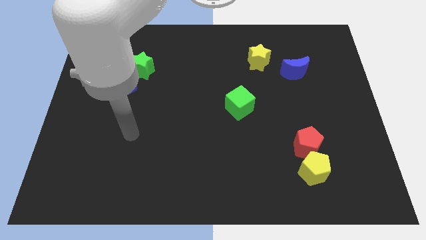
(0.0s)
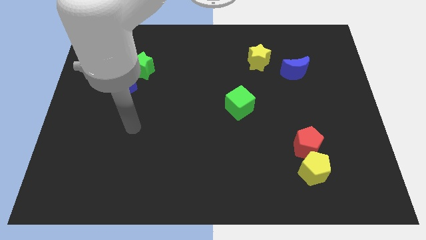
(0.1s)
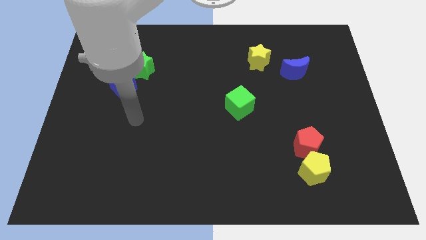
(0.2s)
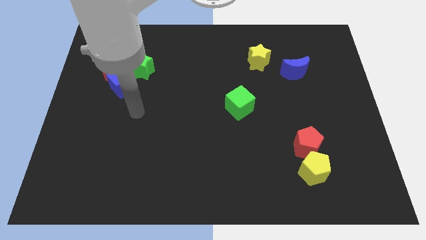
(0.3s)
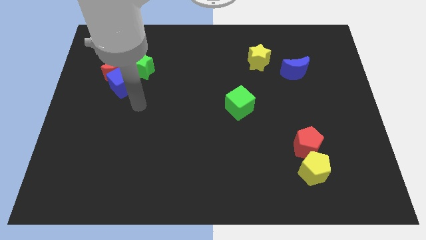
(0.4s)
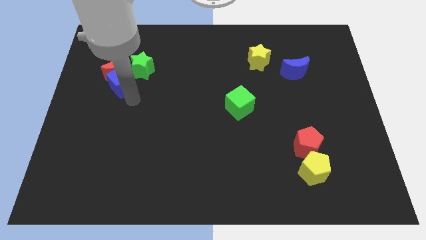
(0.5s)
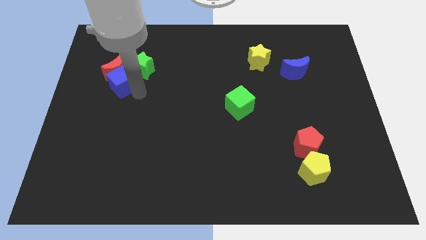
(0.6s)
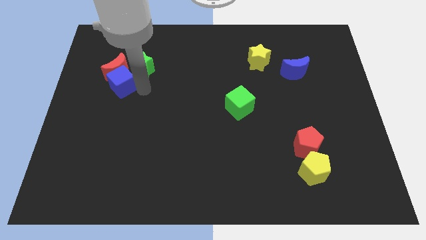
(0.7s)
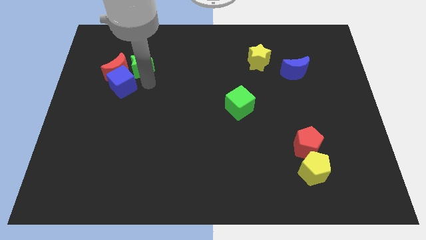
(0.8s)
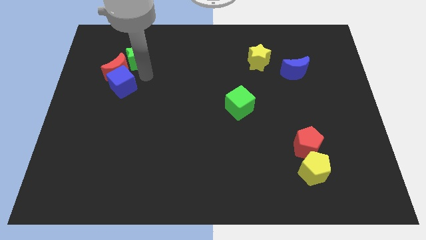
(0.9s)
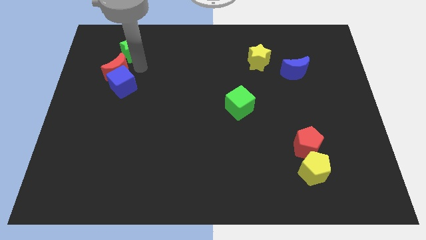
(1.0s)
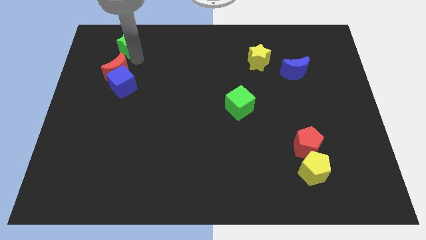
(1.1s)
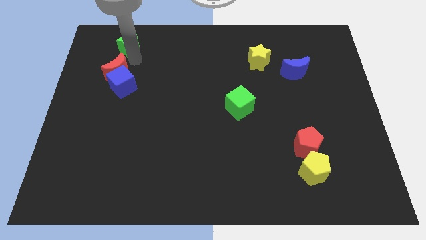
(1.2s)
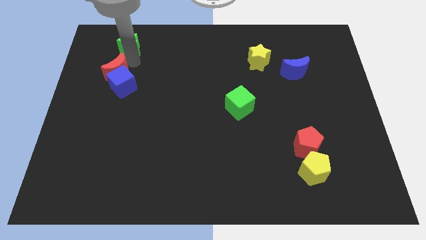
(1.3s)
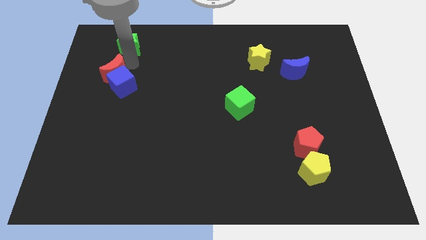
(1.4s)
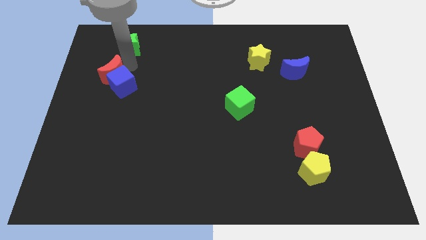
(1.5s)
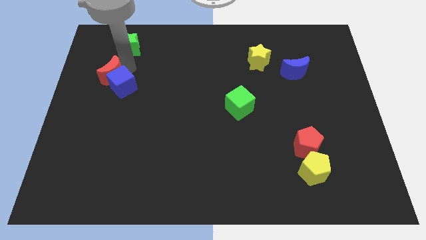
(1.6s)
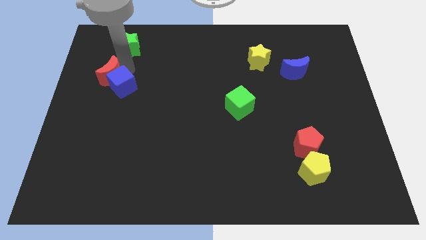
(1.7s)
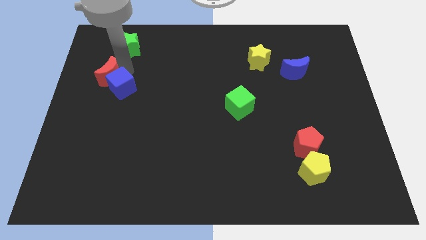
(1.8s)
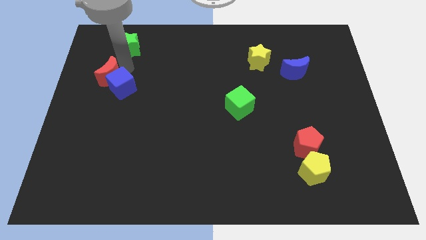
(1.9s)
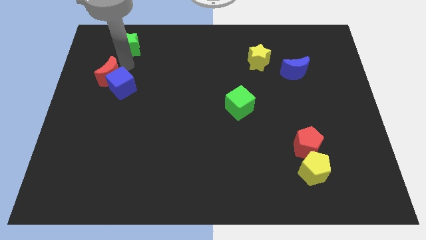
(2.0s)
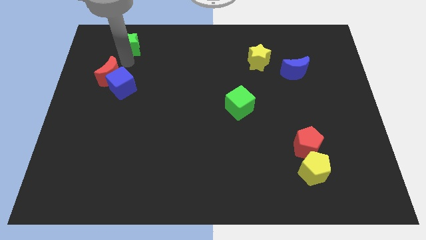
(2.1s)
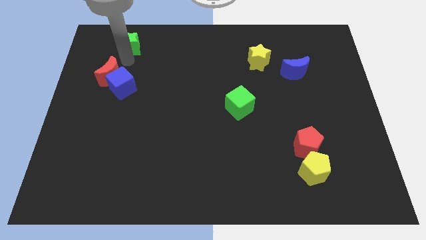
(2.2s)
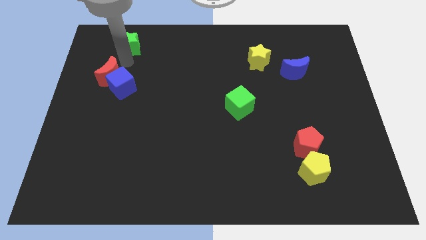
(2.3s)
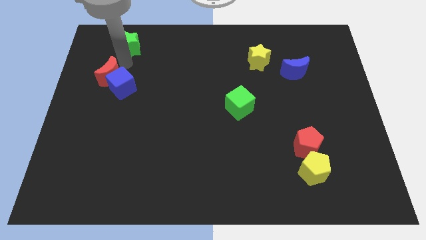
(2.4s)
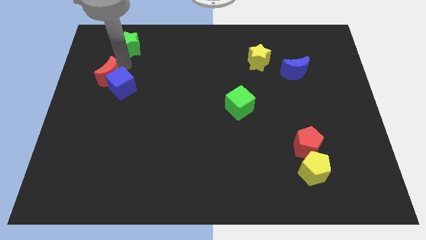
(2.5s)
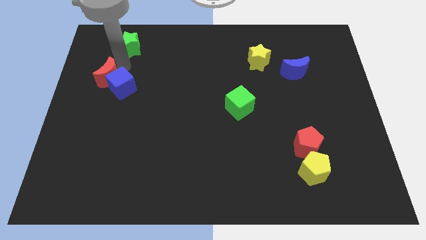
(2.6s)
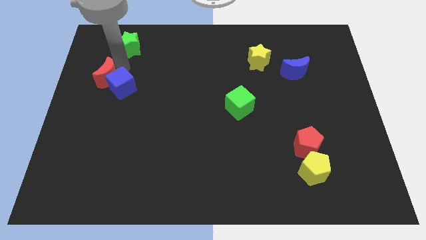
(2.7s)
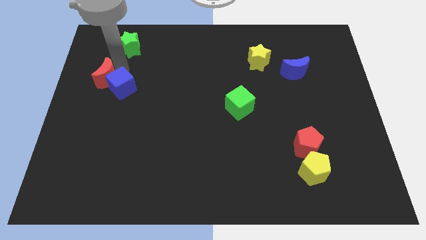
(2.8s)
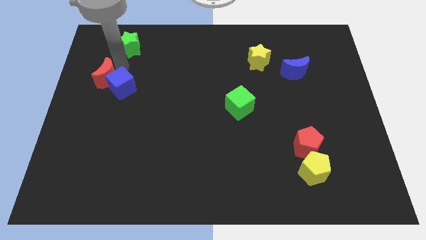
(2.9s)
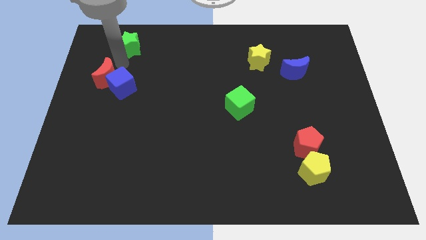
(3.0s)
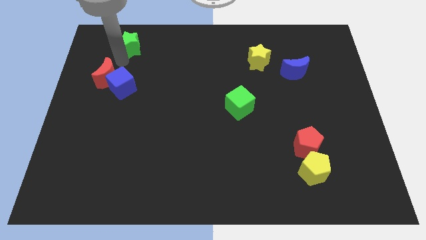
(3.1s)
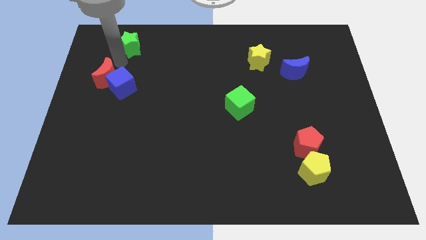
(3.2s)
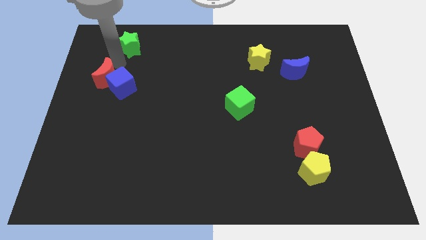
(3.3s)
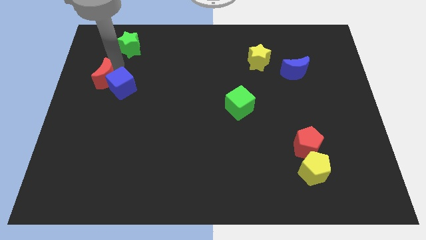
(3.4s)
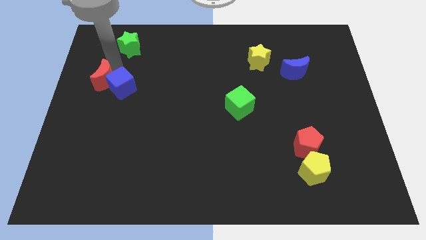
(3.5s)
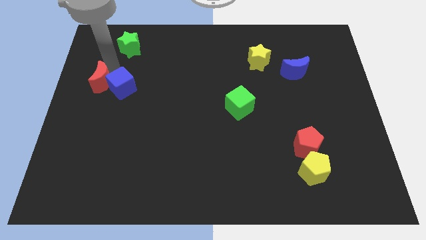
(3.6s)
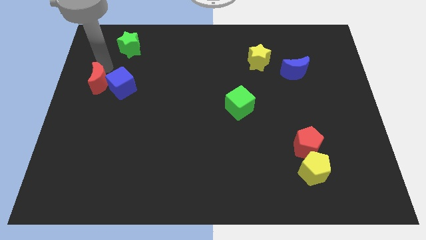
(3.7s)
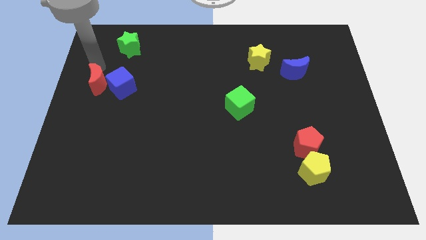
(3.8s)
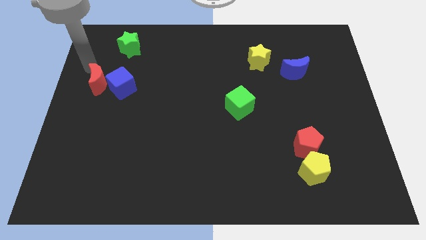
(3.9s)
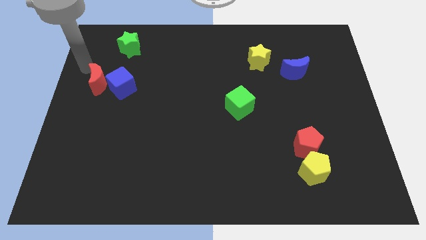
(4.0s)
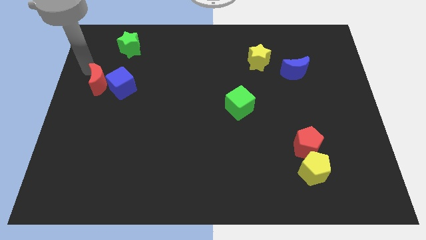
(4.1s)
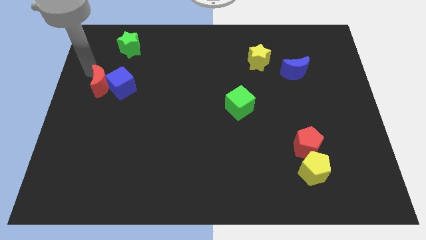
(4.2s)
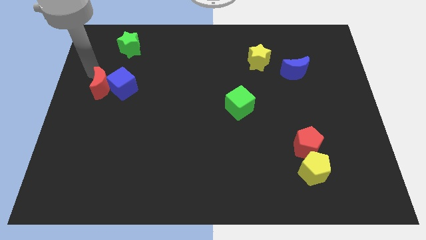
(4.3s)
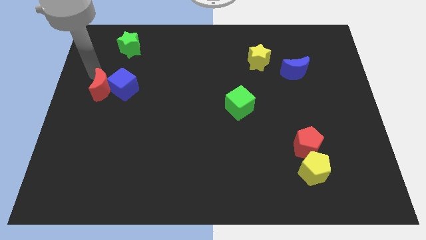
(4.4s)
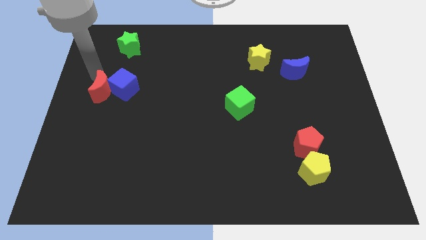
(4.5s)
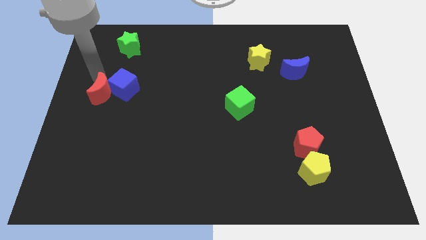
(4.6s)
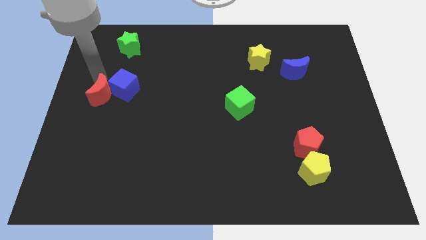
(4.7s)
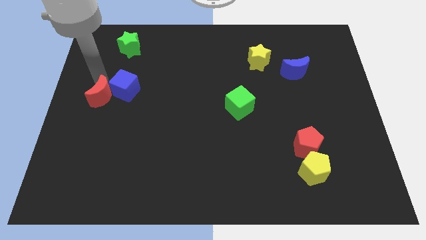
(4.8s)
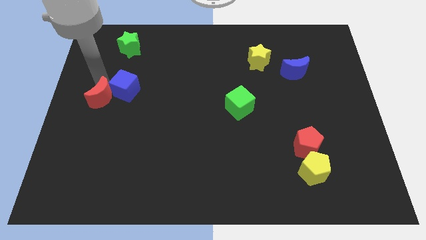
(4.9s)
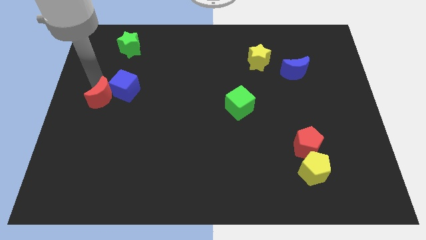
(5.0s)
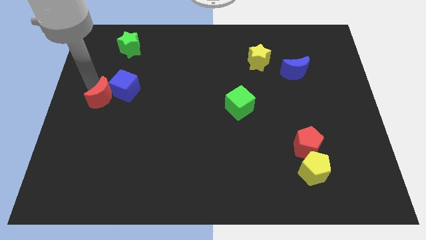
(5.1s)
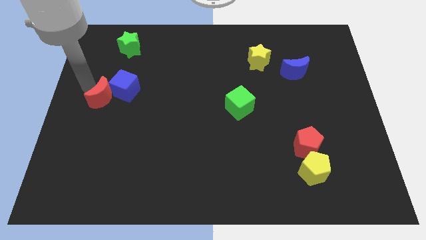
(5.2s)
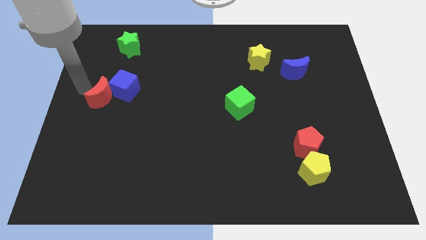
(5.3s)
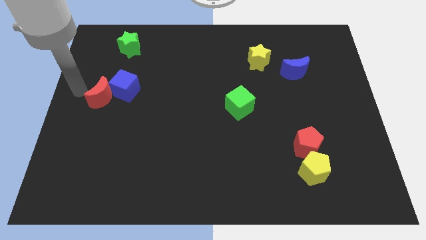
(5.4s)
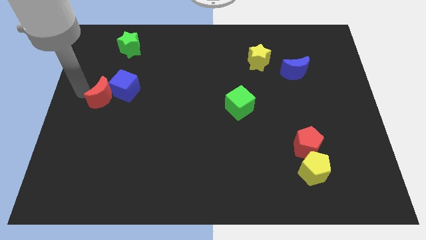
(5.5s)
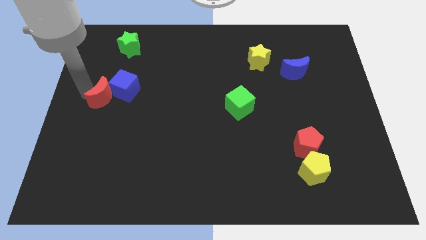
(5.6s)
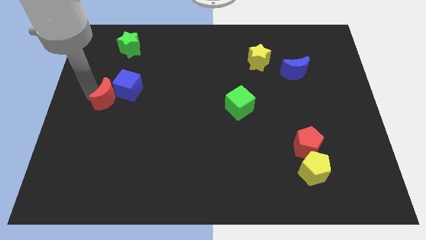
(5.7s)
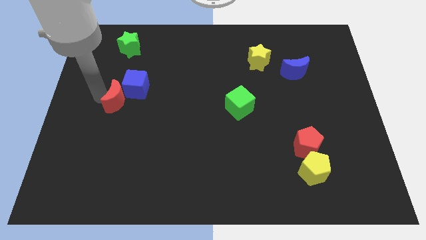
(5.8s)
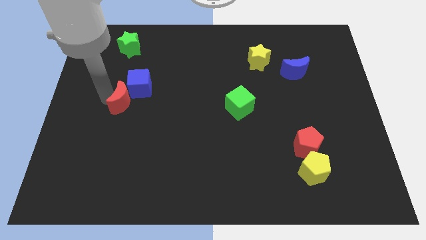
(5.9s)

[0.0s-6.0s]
slightly move the red moon diagonally downwards and right

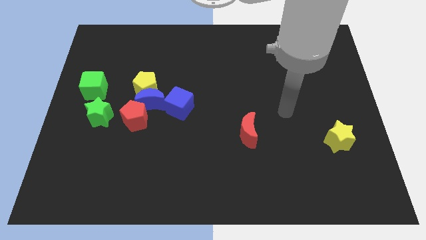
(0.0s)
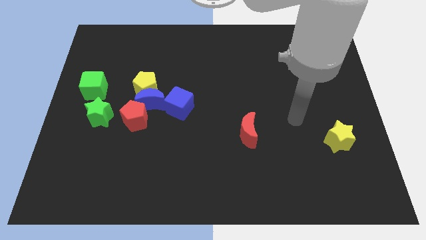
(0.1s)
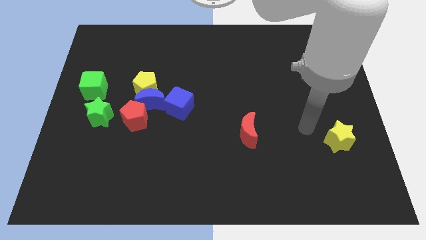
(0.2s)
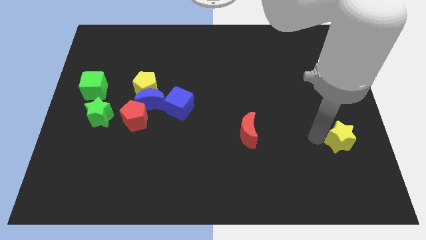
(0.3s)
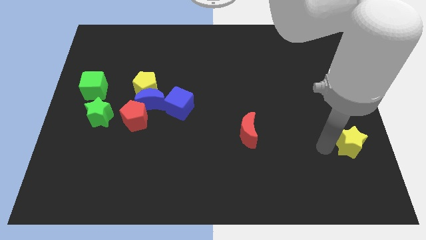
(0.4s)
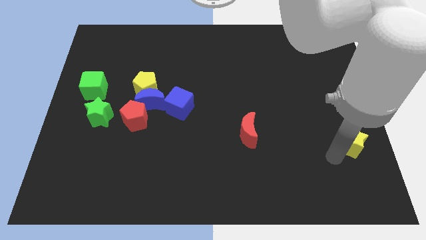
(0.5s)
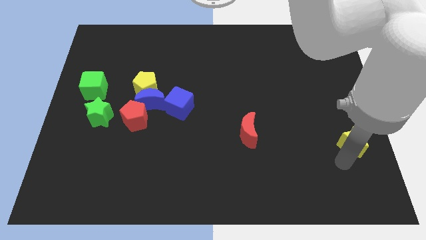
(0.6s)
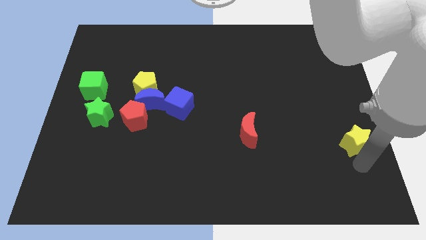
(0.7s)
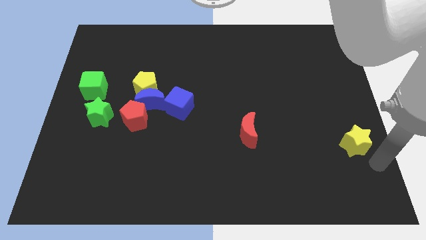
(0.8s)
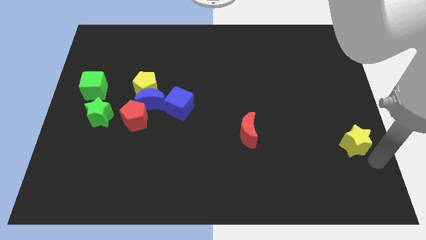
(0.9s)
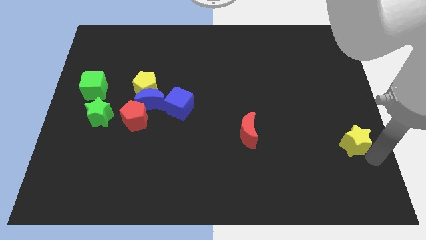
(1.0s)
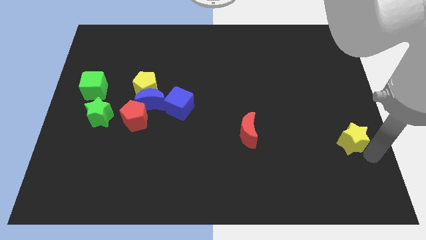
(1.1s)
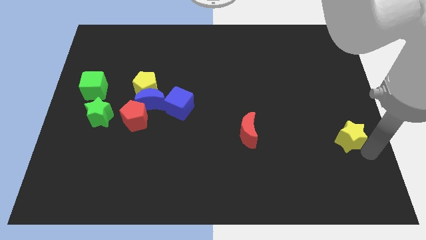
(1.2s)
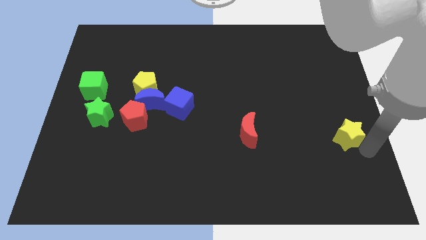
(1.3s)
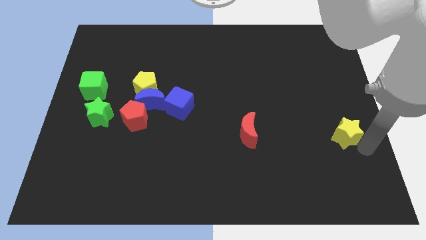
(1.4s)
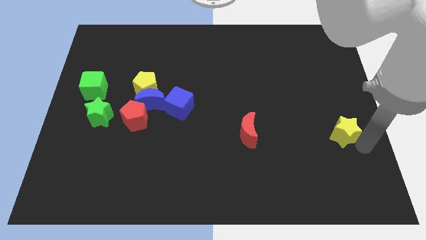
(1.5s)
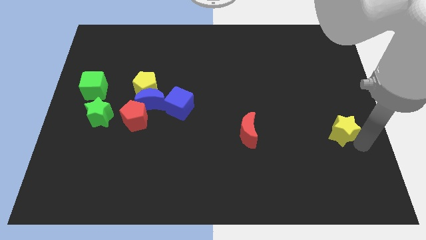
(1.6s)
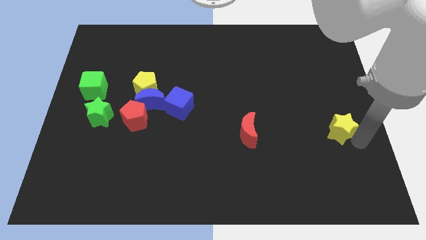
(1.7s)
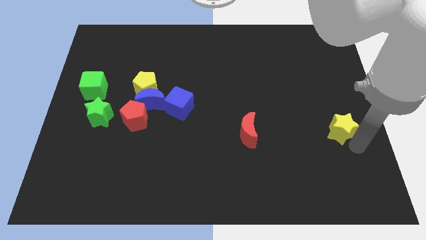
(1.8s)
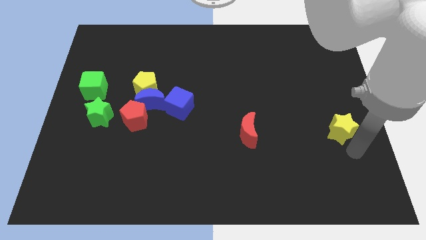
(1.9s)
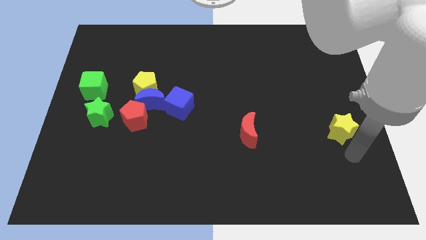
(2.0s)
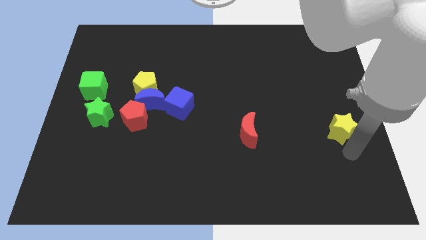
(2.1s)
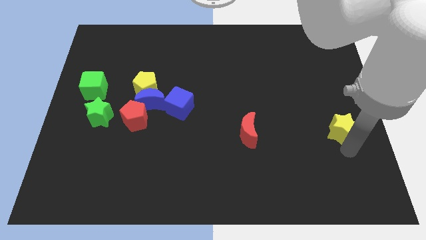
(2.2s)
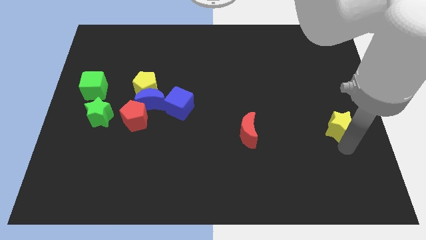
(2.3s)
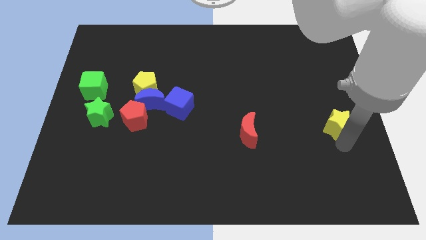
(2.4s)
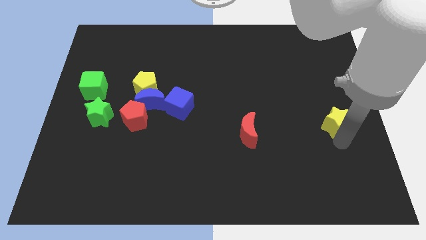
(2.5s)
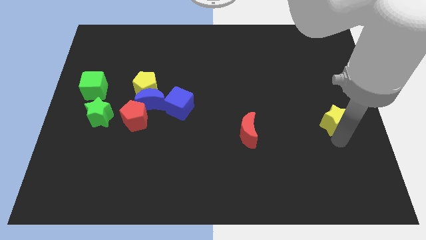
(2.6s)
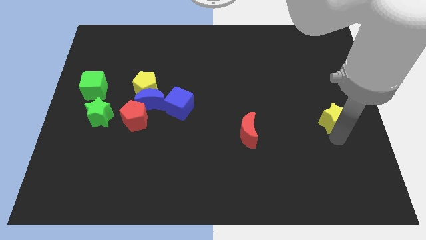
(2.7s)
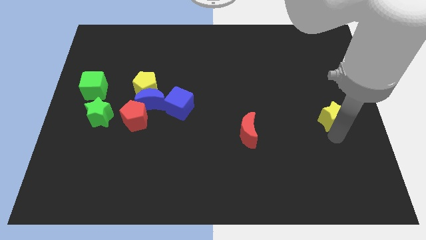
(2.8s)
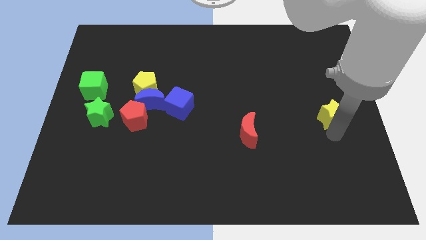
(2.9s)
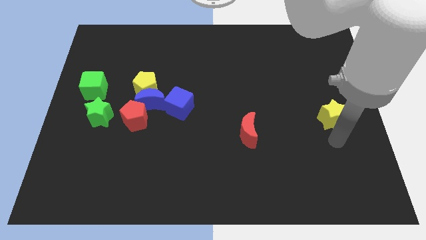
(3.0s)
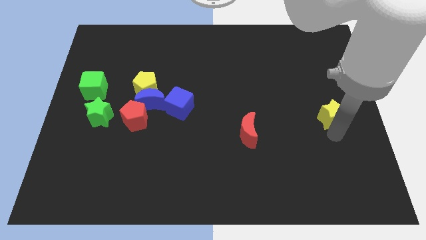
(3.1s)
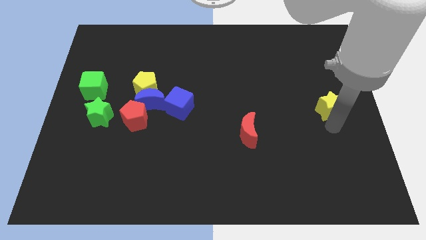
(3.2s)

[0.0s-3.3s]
move the yellow star a little up
